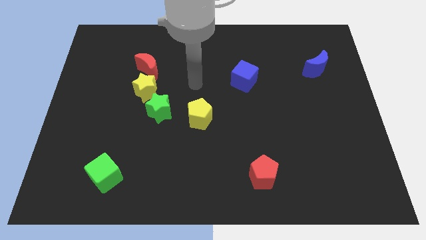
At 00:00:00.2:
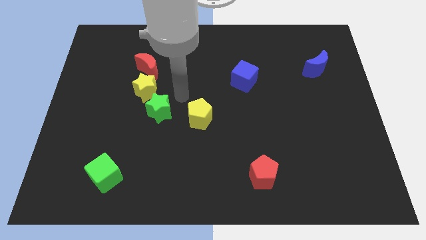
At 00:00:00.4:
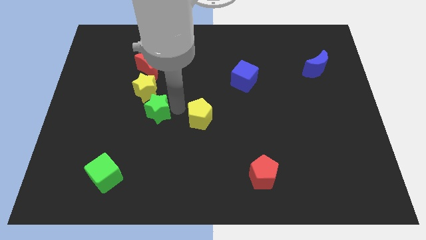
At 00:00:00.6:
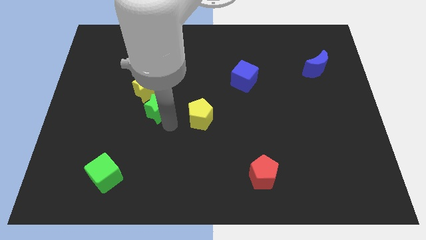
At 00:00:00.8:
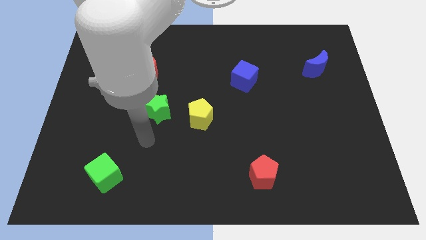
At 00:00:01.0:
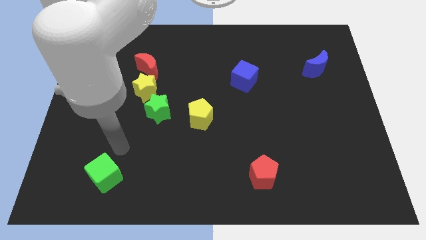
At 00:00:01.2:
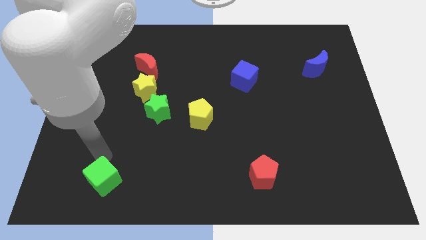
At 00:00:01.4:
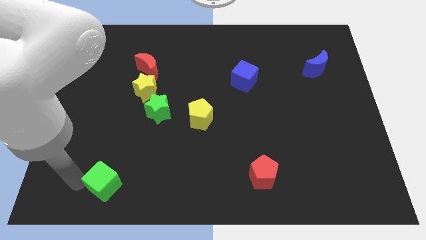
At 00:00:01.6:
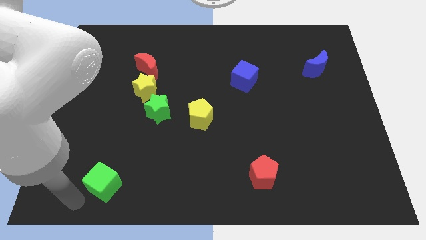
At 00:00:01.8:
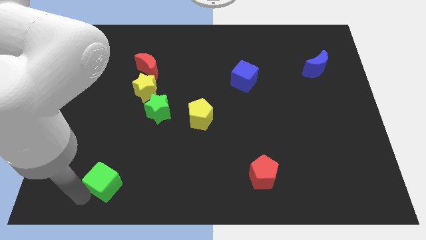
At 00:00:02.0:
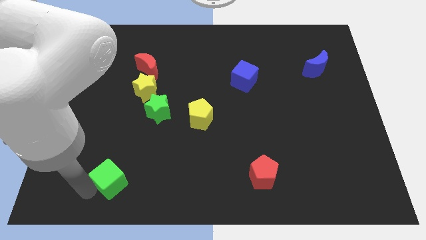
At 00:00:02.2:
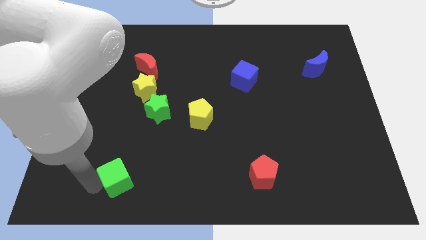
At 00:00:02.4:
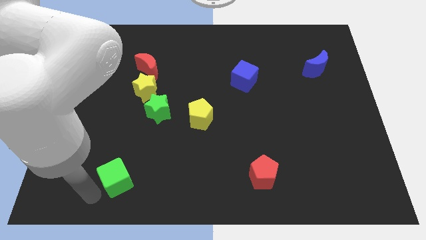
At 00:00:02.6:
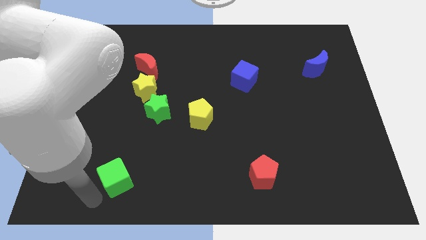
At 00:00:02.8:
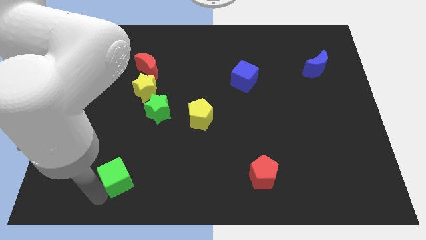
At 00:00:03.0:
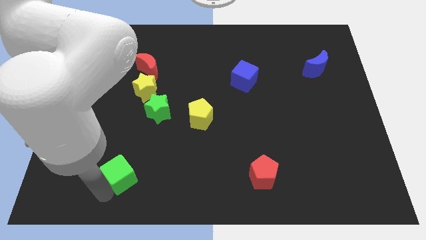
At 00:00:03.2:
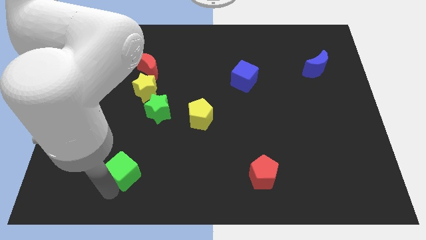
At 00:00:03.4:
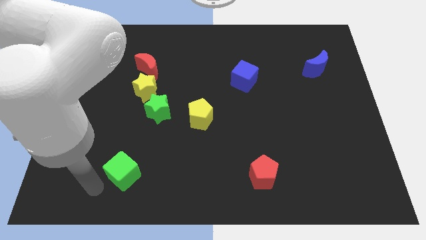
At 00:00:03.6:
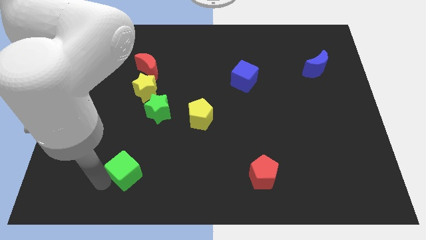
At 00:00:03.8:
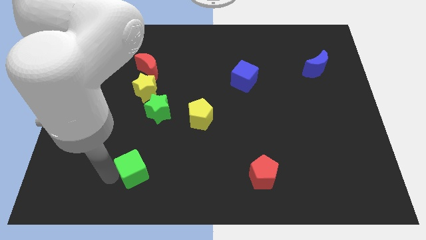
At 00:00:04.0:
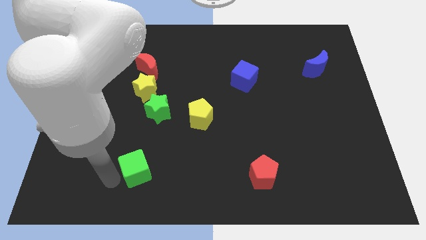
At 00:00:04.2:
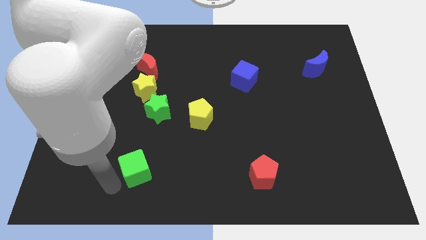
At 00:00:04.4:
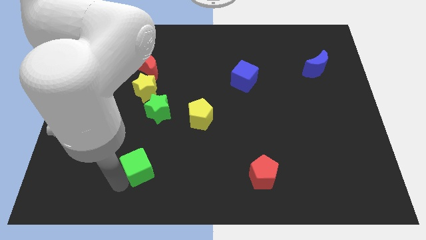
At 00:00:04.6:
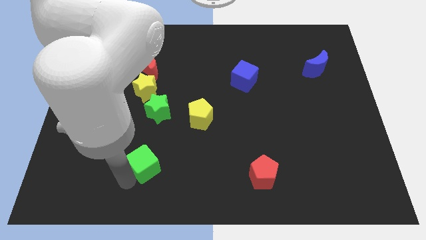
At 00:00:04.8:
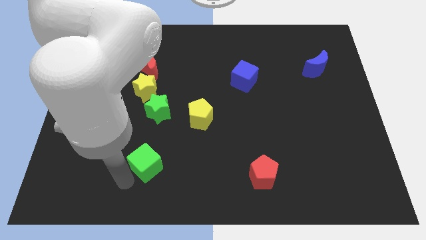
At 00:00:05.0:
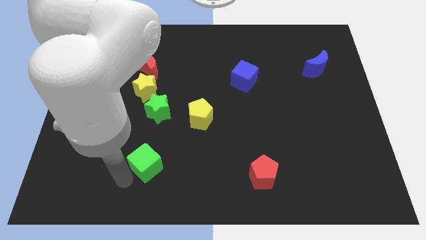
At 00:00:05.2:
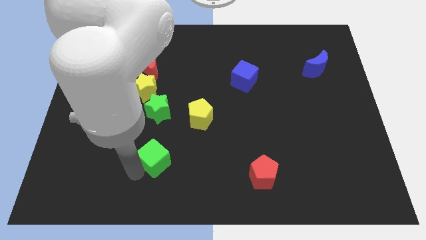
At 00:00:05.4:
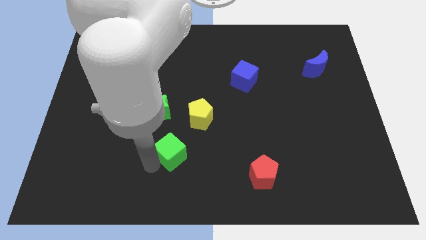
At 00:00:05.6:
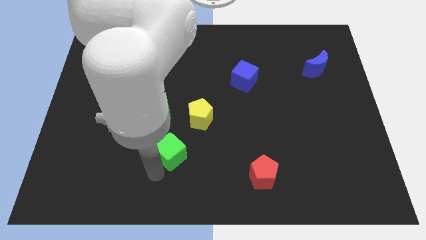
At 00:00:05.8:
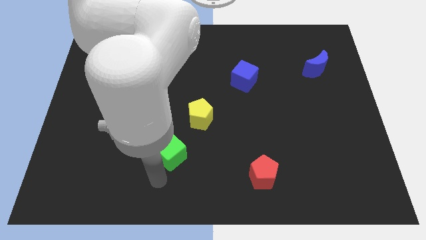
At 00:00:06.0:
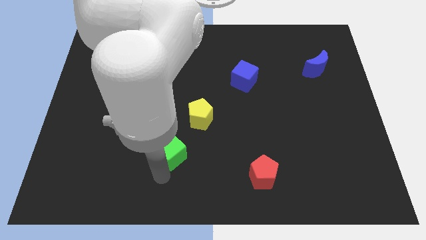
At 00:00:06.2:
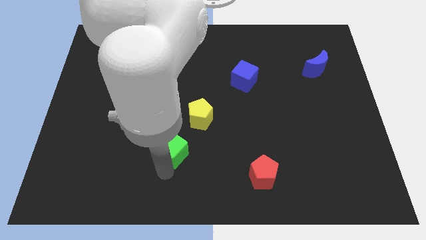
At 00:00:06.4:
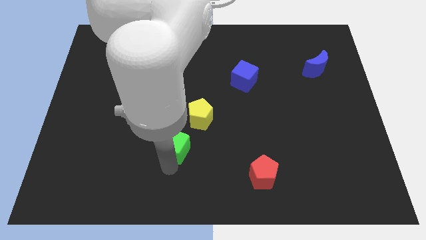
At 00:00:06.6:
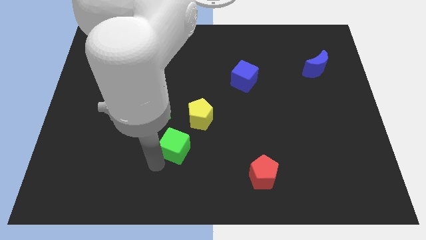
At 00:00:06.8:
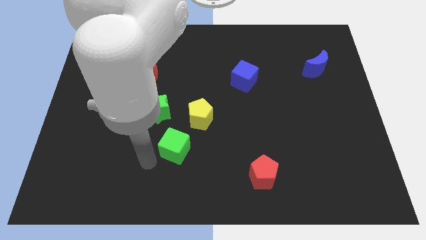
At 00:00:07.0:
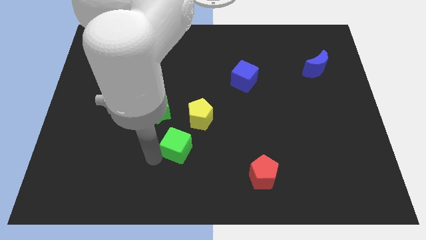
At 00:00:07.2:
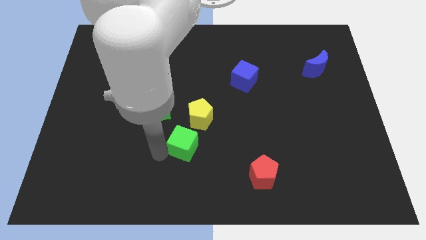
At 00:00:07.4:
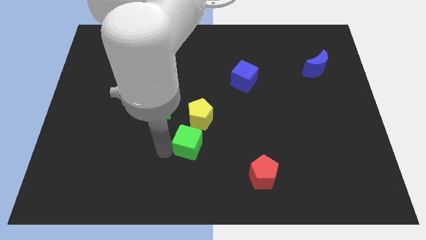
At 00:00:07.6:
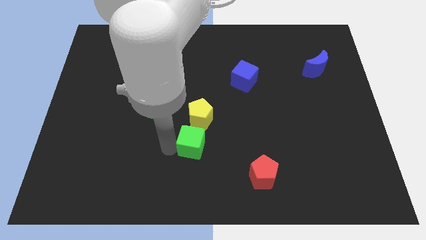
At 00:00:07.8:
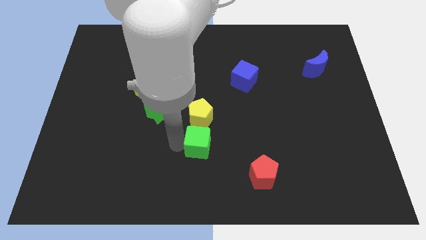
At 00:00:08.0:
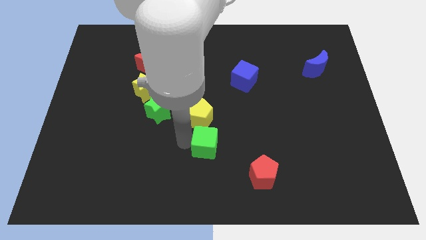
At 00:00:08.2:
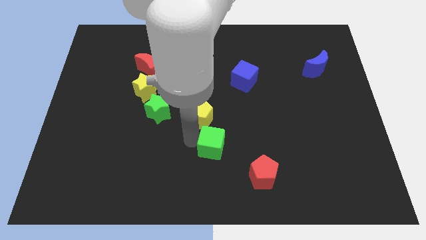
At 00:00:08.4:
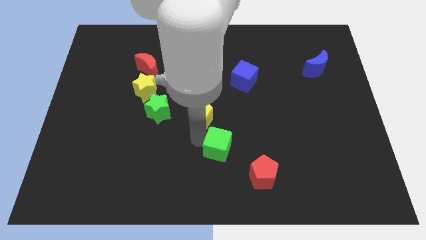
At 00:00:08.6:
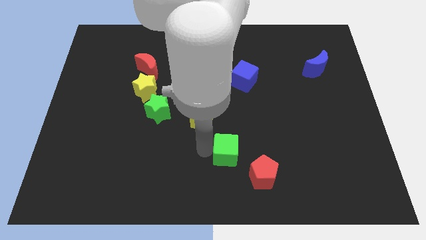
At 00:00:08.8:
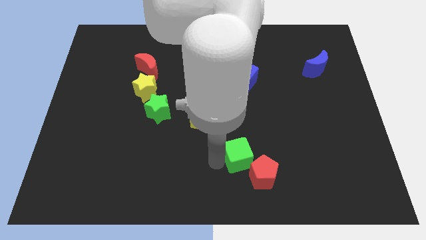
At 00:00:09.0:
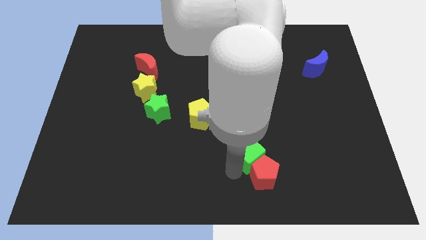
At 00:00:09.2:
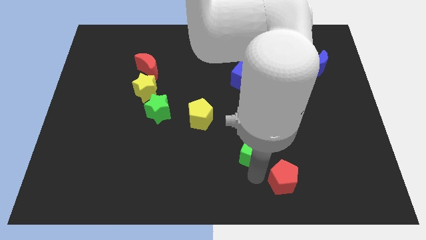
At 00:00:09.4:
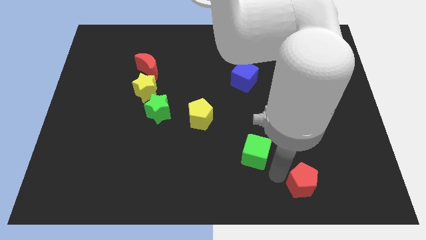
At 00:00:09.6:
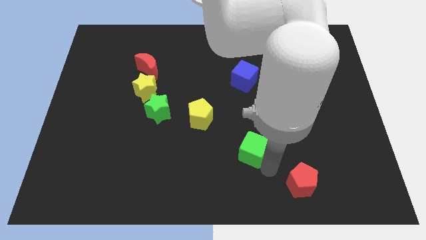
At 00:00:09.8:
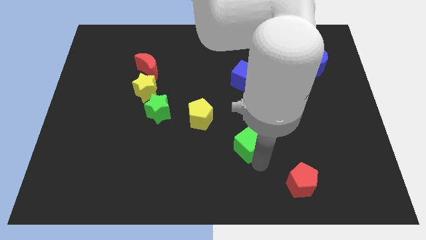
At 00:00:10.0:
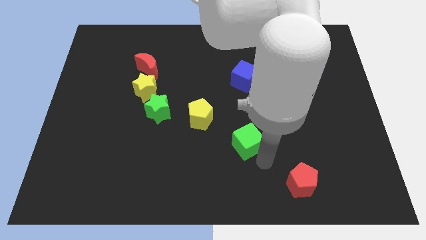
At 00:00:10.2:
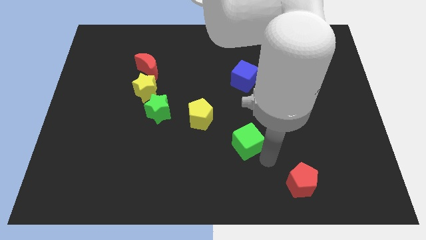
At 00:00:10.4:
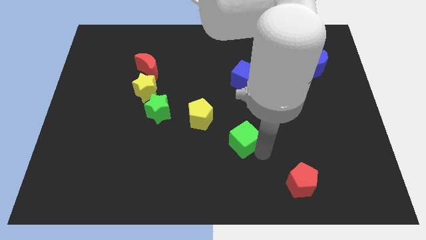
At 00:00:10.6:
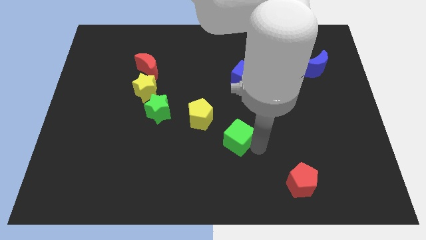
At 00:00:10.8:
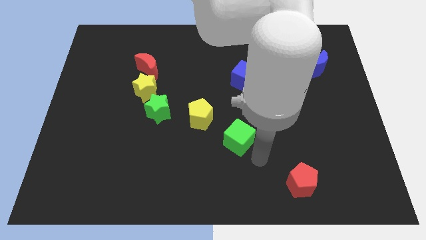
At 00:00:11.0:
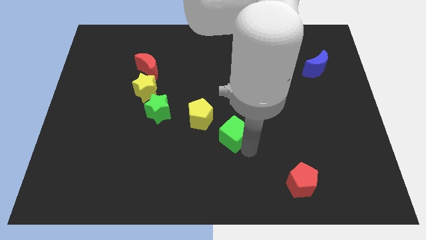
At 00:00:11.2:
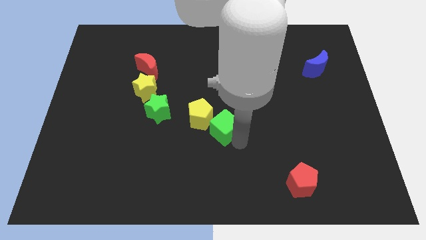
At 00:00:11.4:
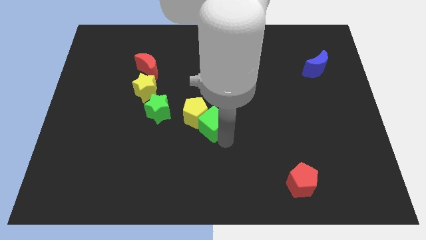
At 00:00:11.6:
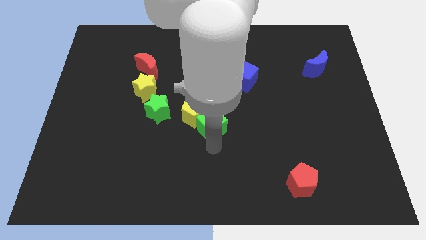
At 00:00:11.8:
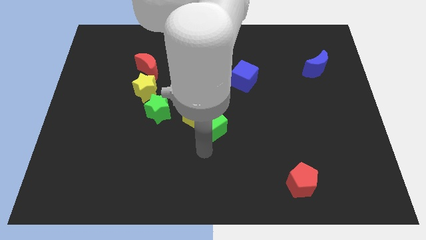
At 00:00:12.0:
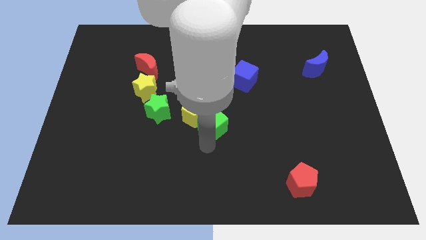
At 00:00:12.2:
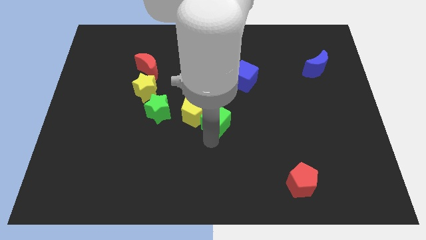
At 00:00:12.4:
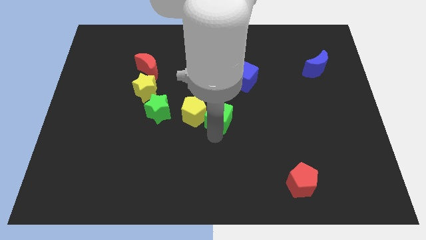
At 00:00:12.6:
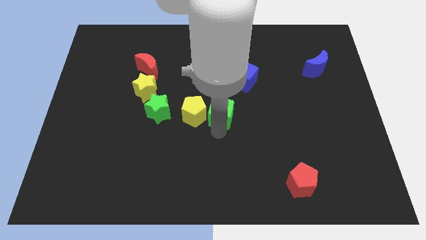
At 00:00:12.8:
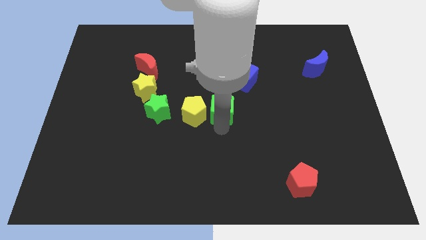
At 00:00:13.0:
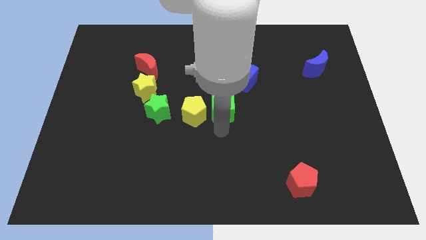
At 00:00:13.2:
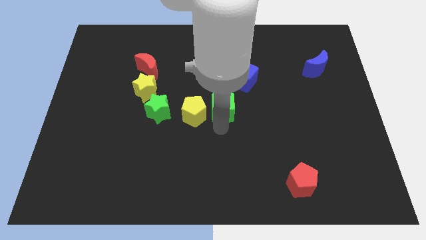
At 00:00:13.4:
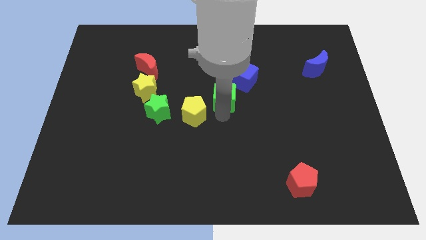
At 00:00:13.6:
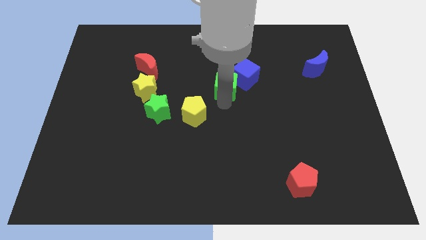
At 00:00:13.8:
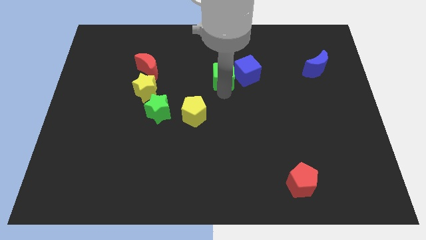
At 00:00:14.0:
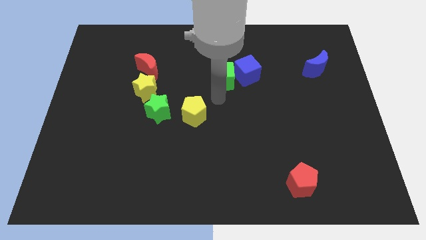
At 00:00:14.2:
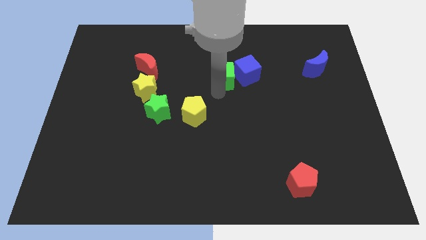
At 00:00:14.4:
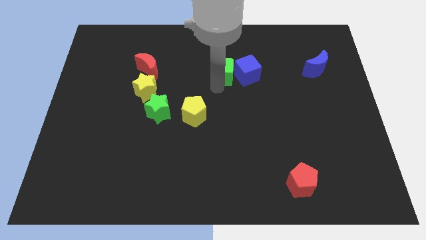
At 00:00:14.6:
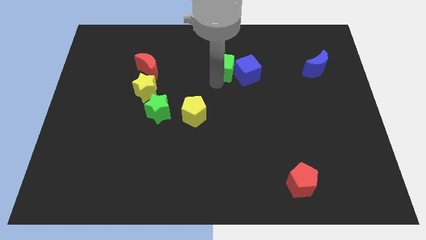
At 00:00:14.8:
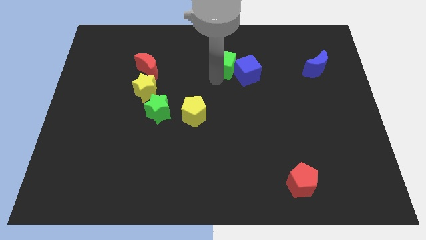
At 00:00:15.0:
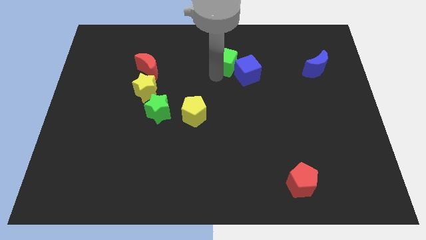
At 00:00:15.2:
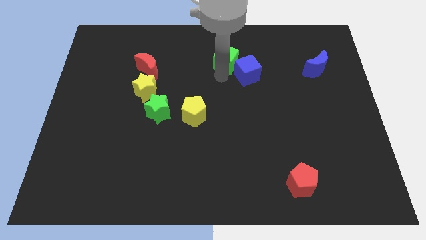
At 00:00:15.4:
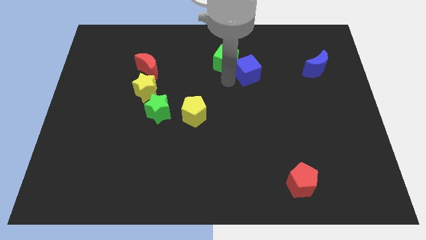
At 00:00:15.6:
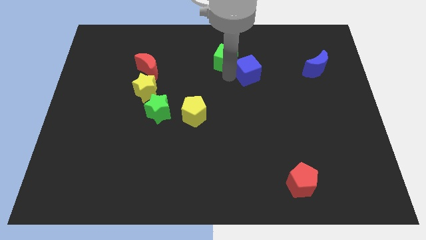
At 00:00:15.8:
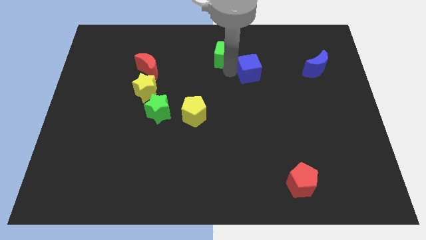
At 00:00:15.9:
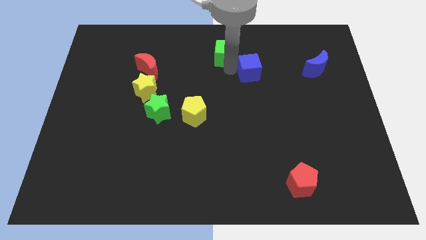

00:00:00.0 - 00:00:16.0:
put the green cube to the top side
